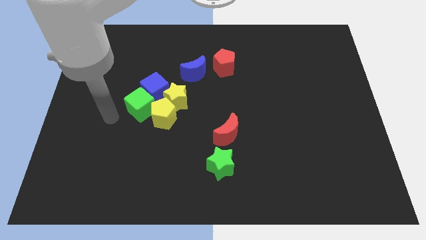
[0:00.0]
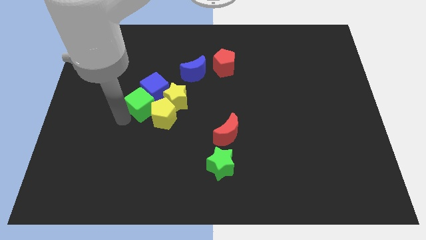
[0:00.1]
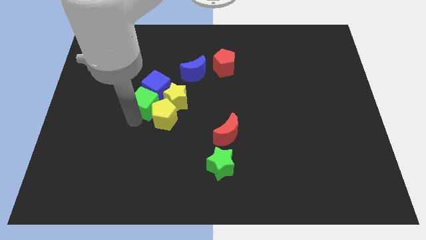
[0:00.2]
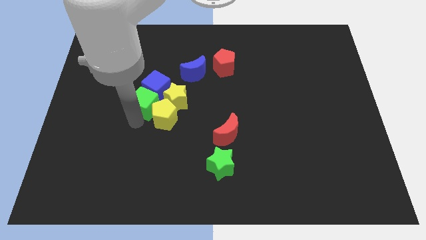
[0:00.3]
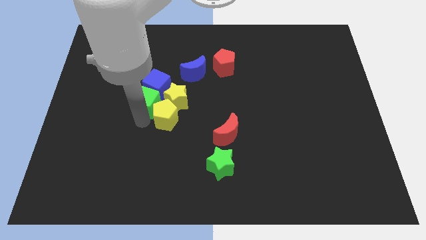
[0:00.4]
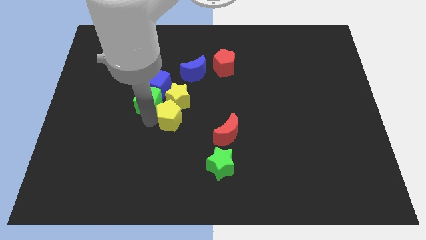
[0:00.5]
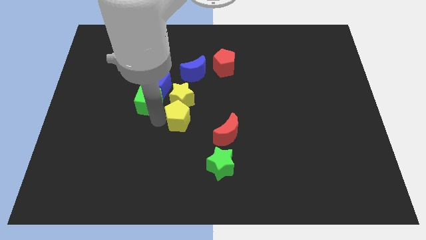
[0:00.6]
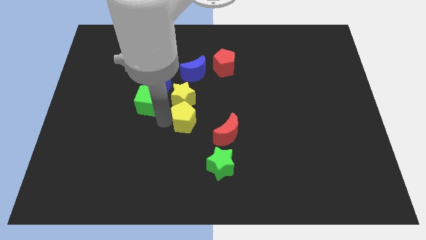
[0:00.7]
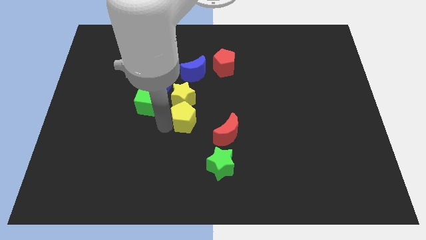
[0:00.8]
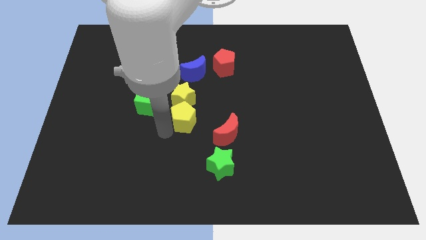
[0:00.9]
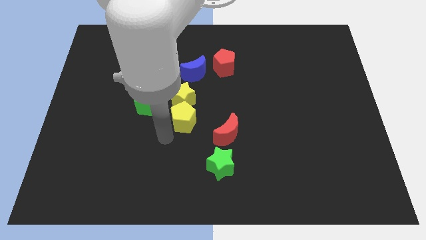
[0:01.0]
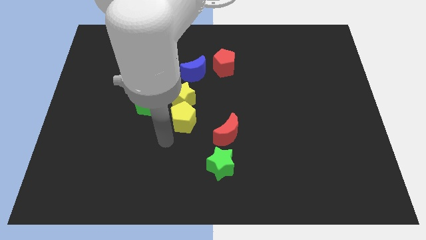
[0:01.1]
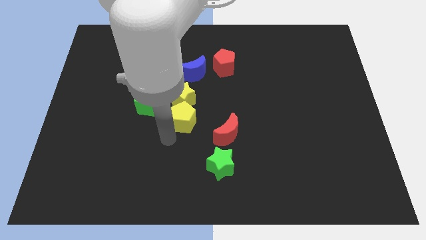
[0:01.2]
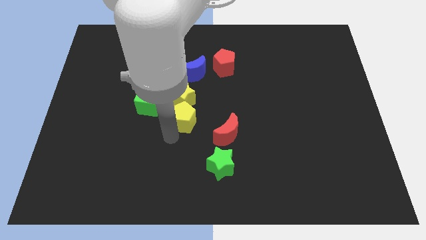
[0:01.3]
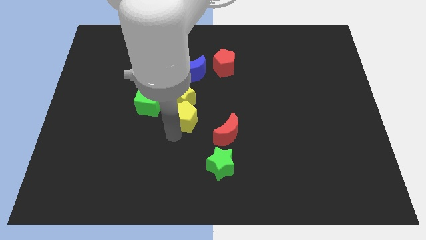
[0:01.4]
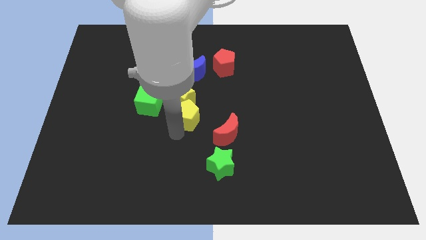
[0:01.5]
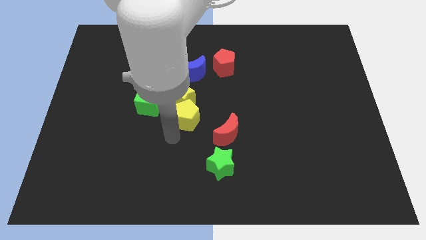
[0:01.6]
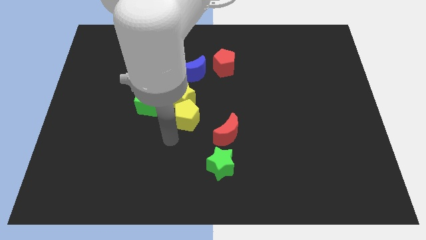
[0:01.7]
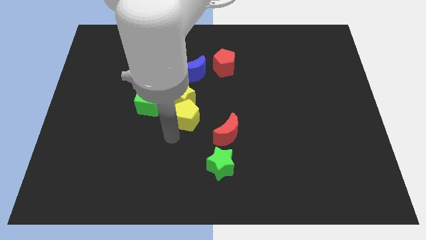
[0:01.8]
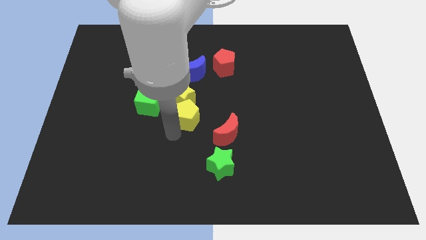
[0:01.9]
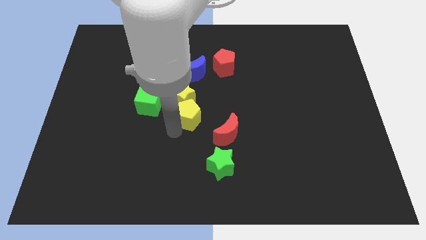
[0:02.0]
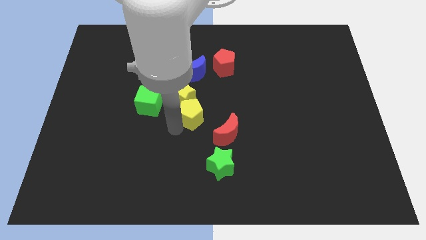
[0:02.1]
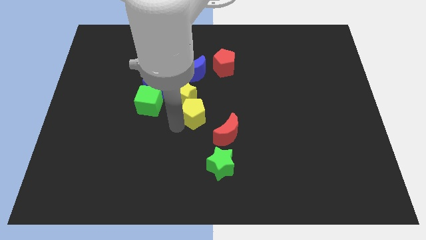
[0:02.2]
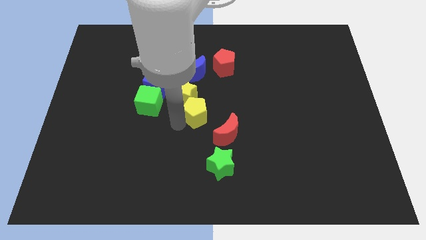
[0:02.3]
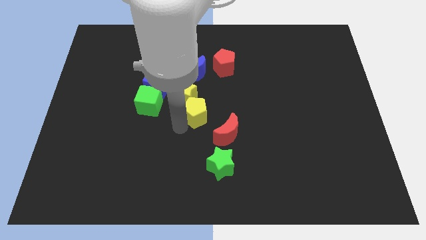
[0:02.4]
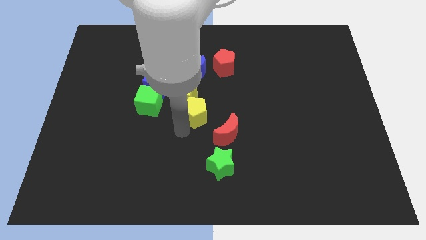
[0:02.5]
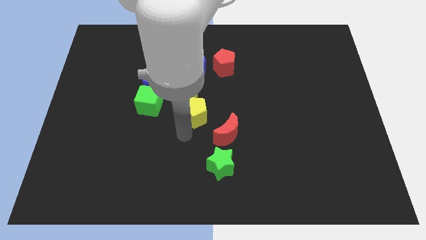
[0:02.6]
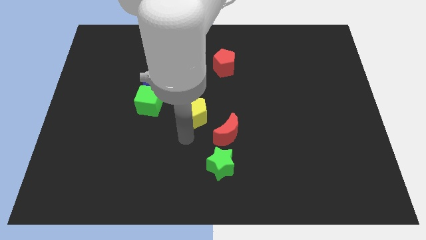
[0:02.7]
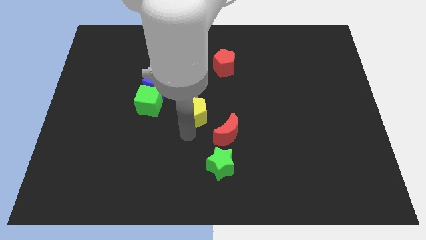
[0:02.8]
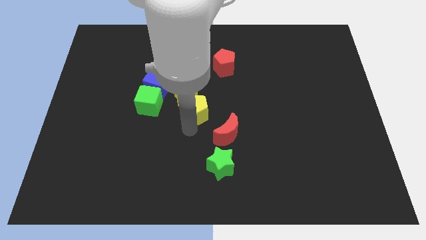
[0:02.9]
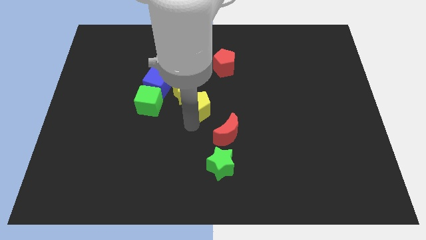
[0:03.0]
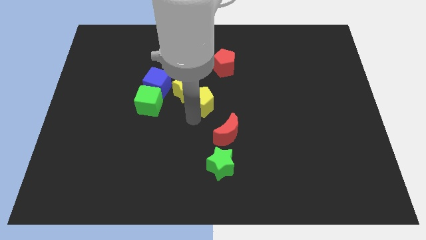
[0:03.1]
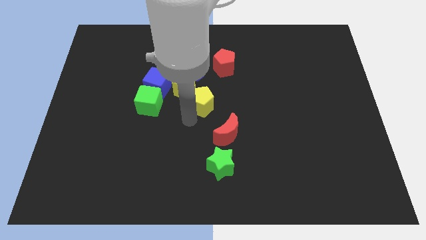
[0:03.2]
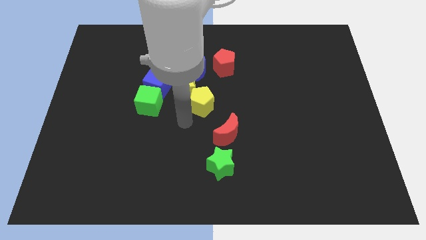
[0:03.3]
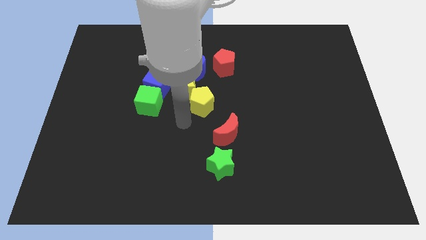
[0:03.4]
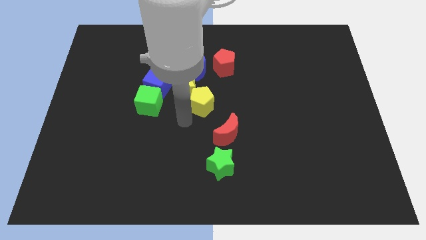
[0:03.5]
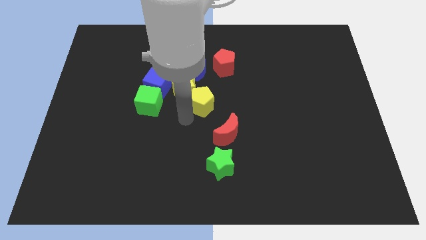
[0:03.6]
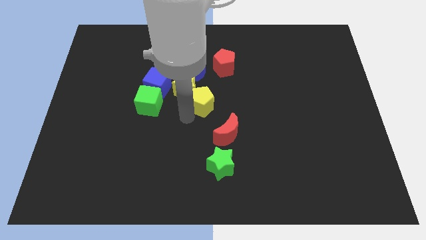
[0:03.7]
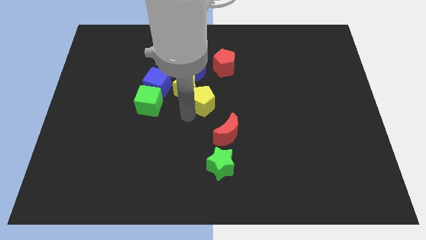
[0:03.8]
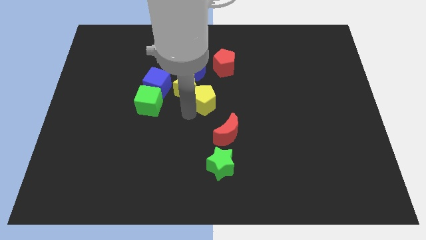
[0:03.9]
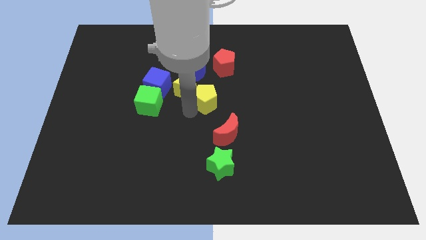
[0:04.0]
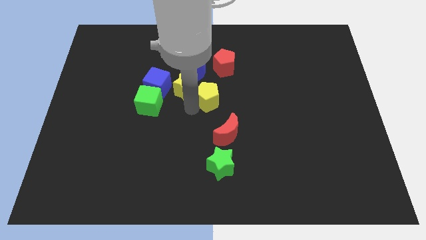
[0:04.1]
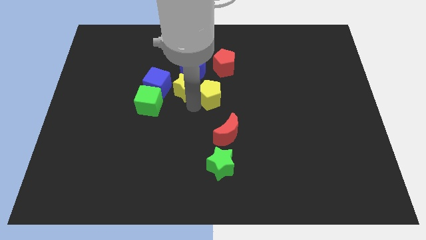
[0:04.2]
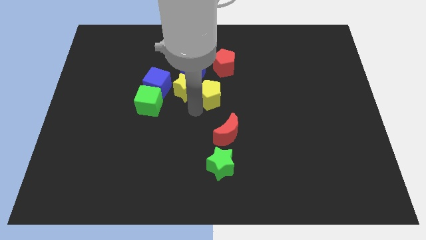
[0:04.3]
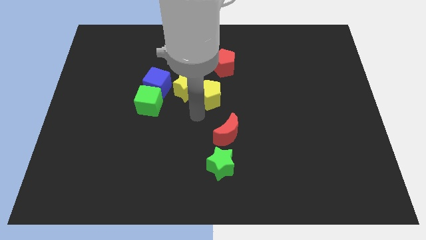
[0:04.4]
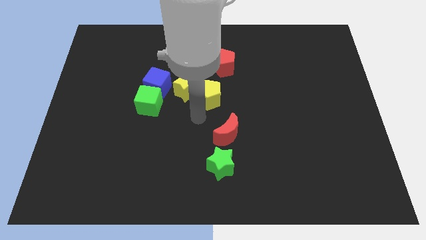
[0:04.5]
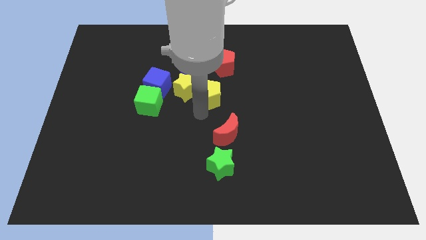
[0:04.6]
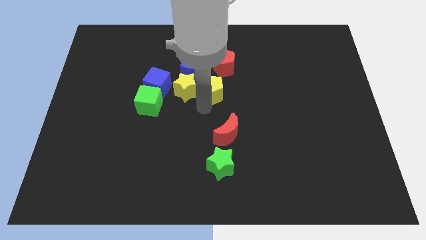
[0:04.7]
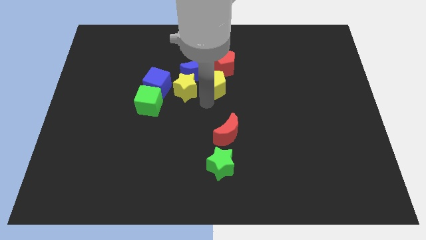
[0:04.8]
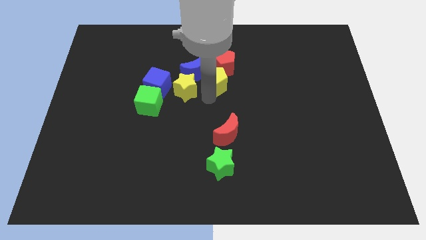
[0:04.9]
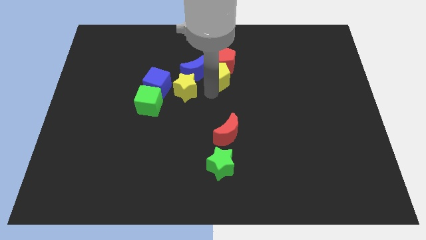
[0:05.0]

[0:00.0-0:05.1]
slide the yellow pentagon towards the red pentagon

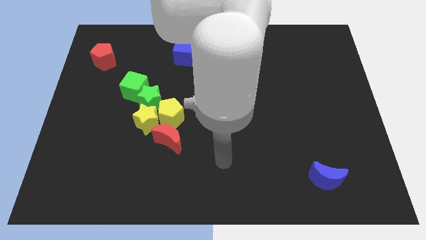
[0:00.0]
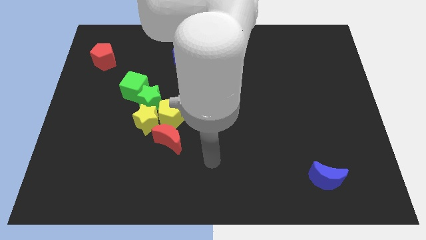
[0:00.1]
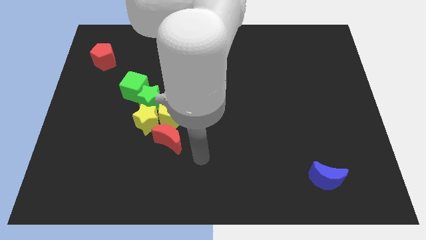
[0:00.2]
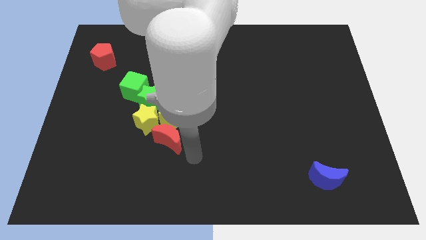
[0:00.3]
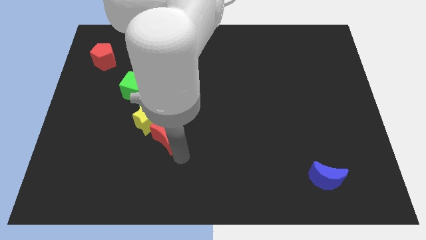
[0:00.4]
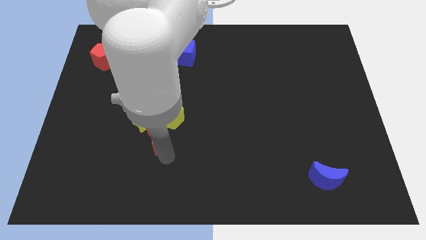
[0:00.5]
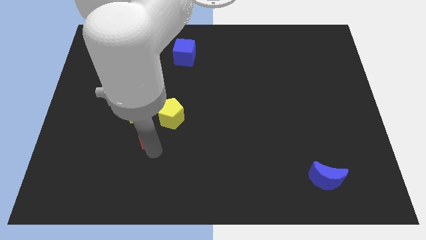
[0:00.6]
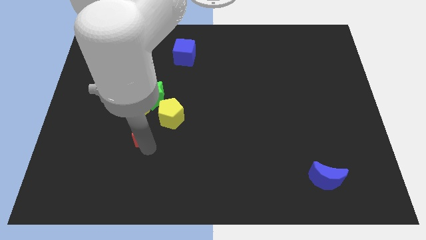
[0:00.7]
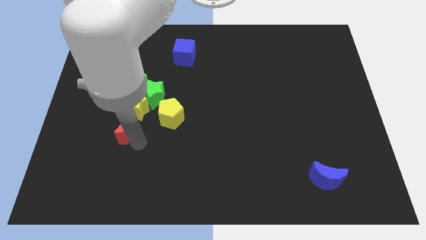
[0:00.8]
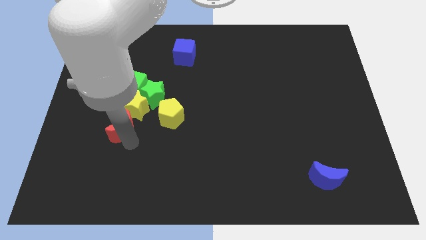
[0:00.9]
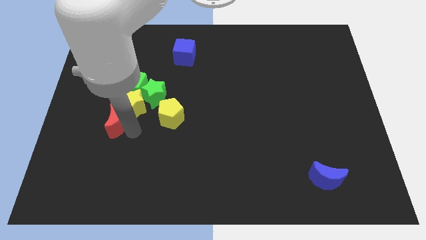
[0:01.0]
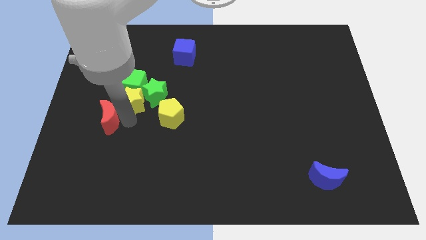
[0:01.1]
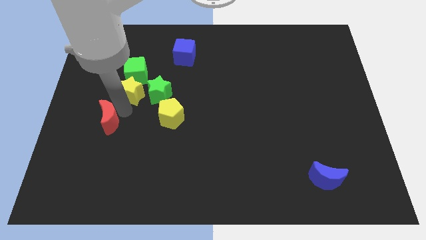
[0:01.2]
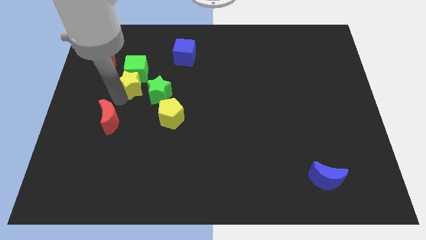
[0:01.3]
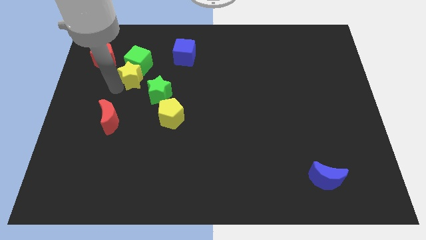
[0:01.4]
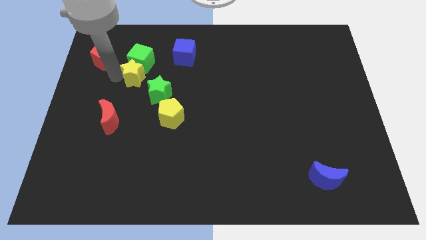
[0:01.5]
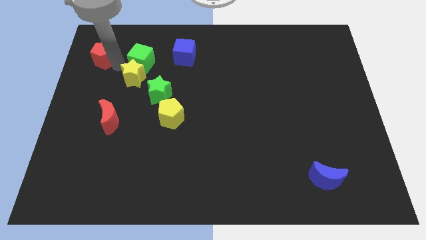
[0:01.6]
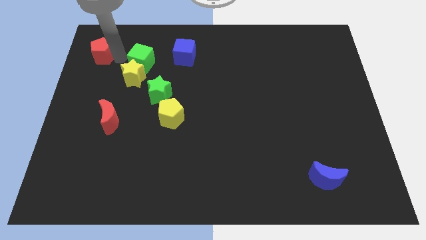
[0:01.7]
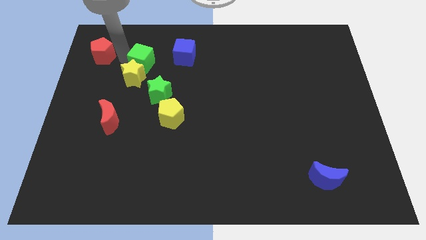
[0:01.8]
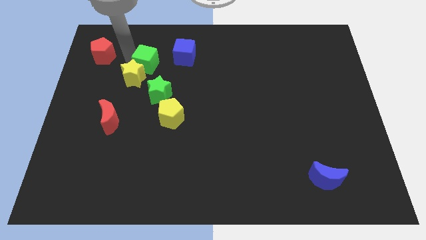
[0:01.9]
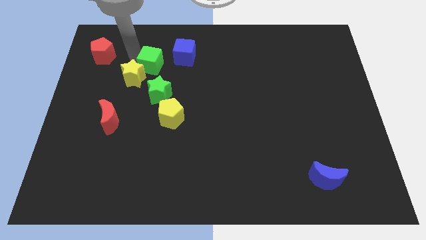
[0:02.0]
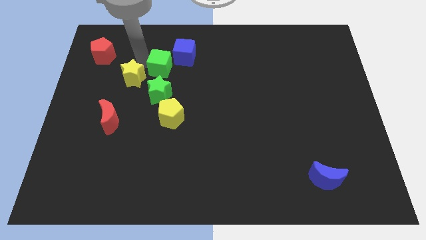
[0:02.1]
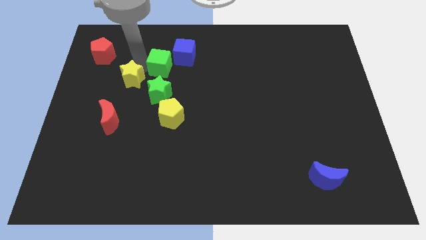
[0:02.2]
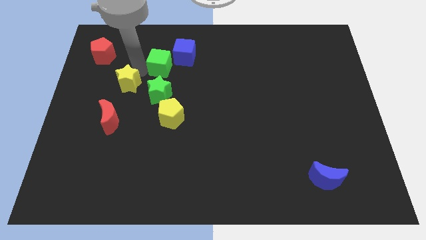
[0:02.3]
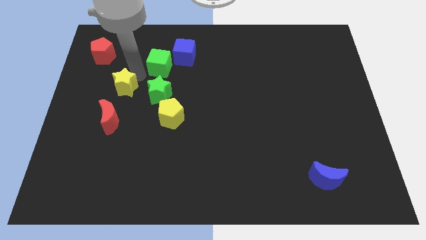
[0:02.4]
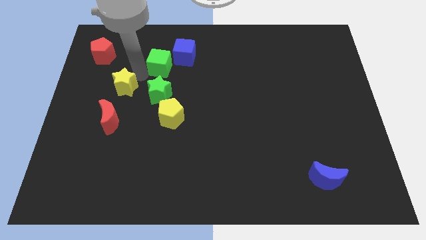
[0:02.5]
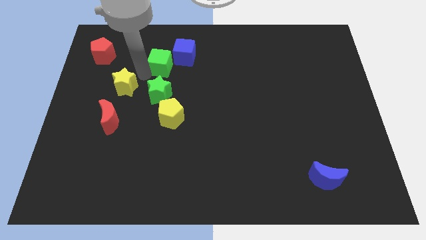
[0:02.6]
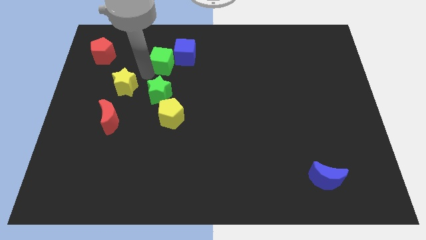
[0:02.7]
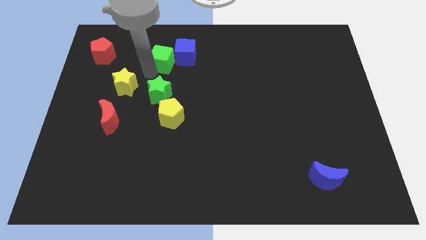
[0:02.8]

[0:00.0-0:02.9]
put the green cube next to the blue cube
